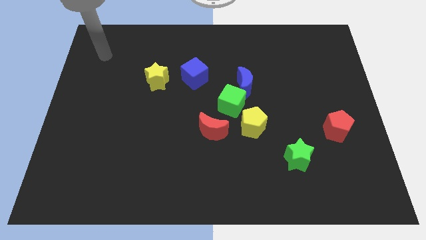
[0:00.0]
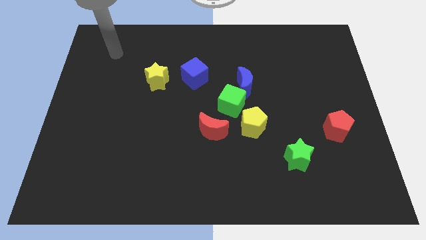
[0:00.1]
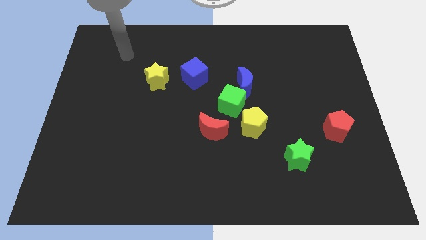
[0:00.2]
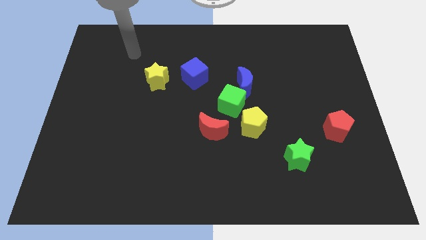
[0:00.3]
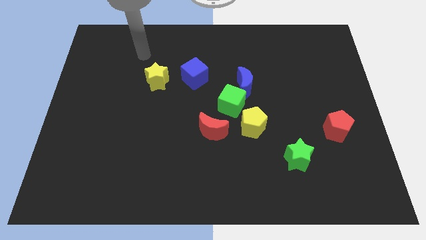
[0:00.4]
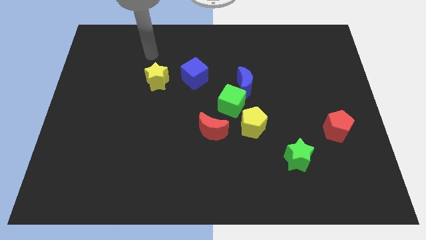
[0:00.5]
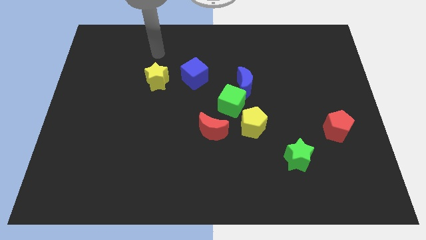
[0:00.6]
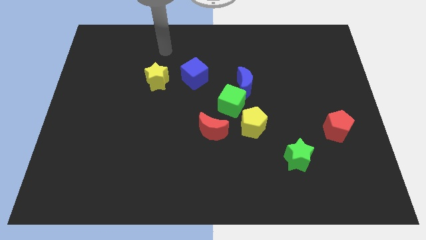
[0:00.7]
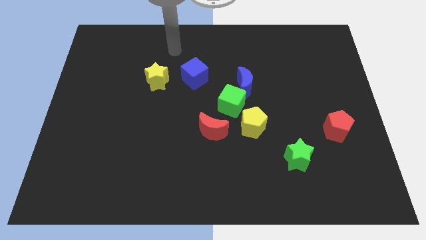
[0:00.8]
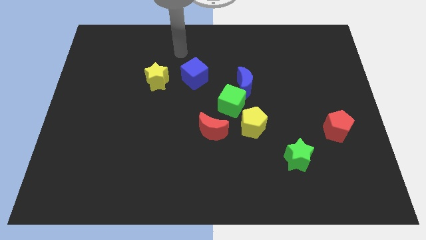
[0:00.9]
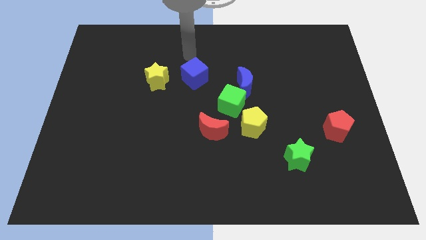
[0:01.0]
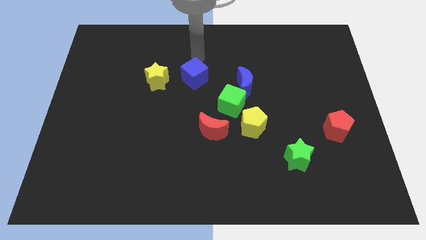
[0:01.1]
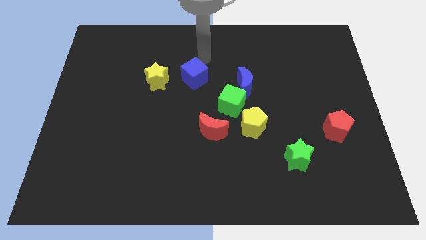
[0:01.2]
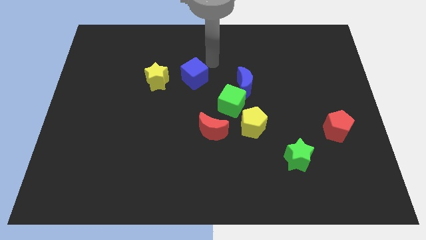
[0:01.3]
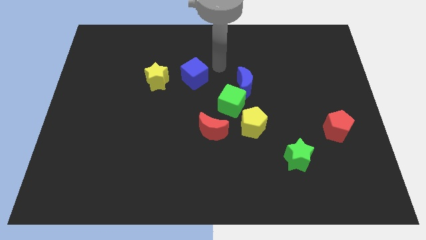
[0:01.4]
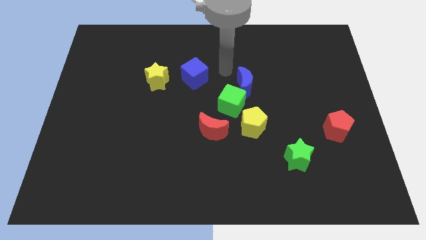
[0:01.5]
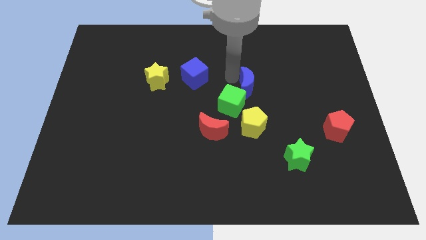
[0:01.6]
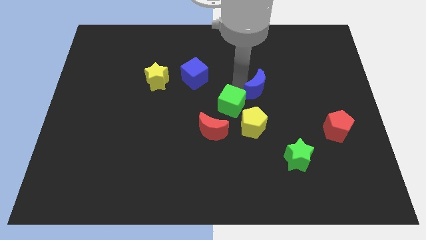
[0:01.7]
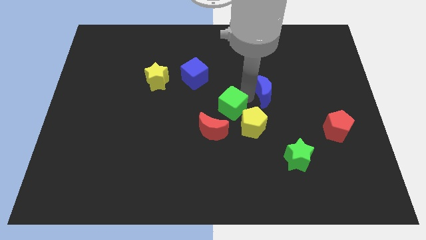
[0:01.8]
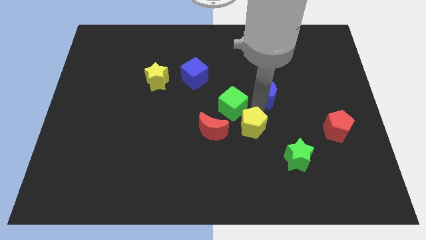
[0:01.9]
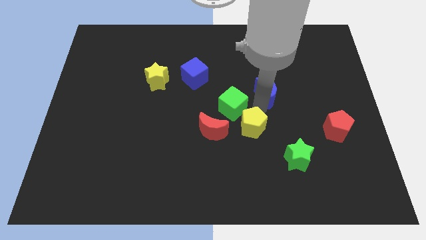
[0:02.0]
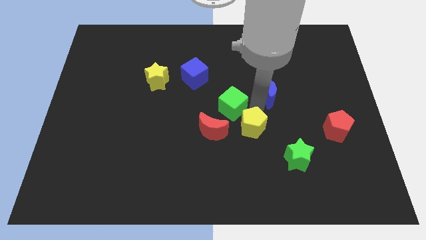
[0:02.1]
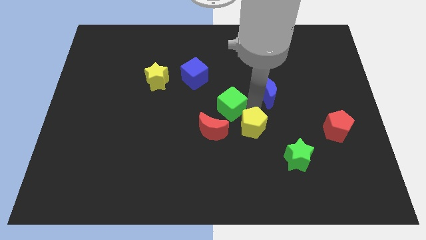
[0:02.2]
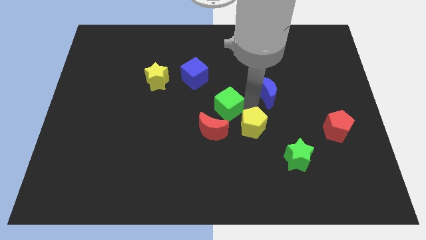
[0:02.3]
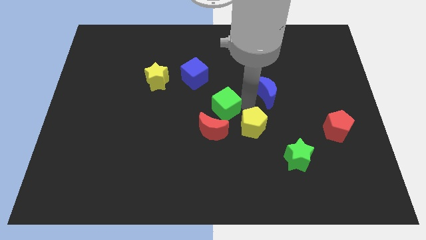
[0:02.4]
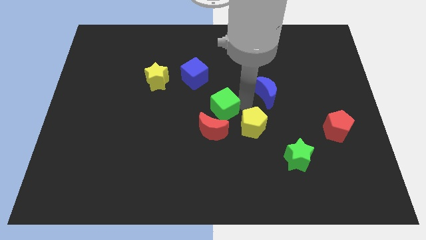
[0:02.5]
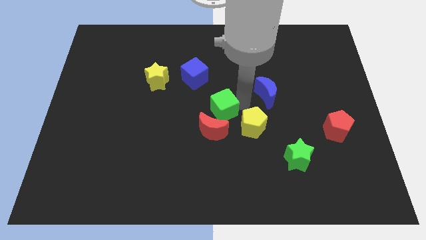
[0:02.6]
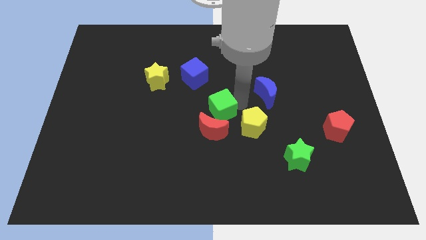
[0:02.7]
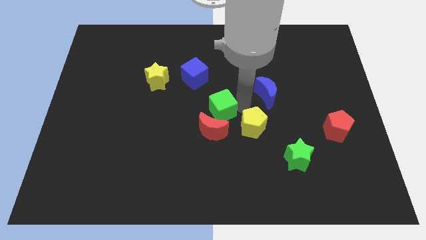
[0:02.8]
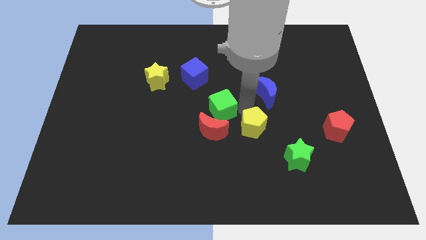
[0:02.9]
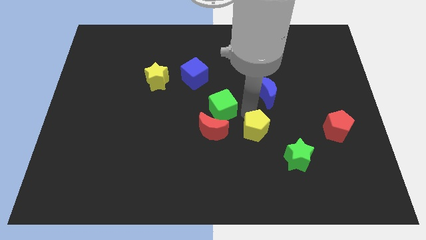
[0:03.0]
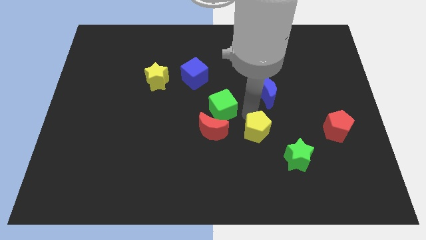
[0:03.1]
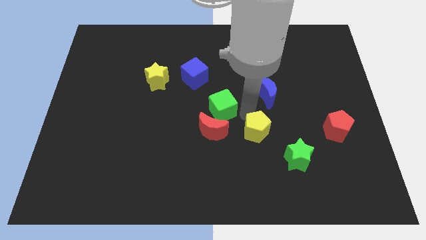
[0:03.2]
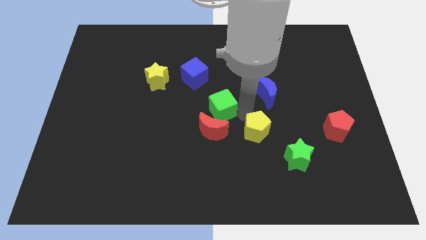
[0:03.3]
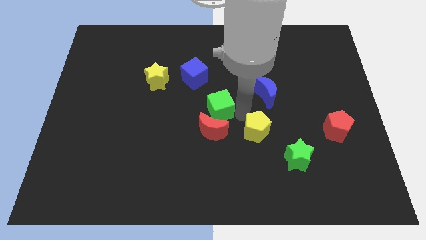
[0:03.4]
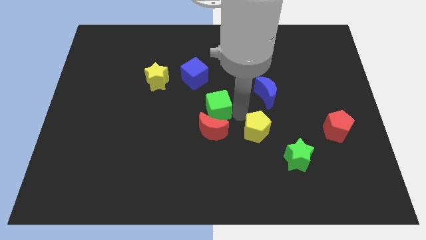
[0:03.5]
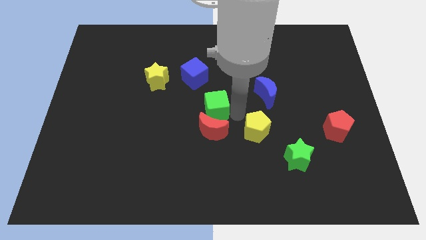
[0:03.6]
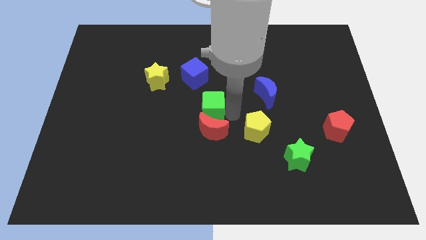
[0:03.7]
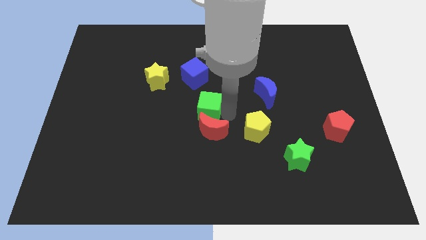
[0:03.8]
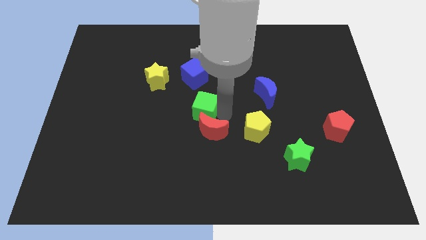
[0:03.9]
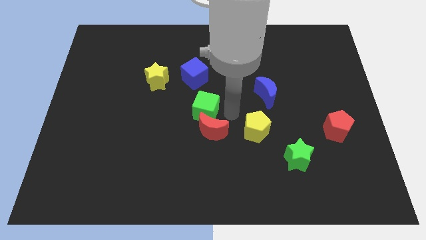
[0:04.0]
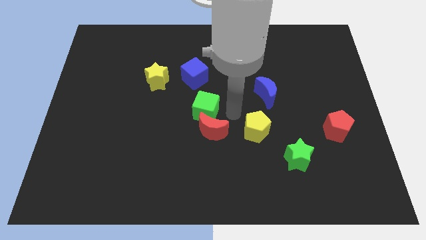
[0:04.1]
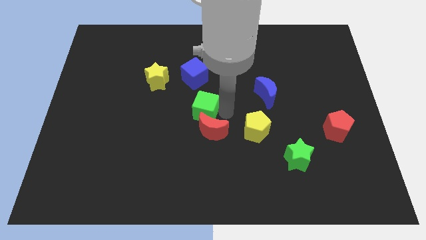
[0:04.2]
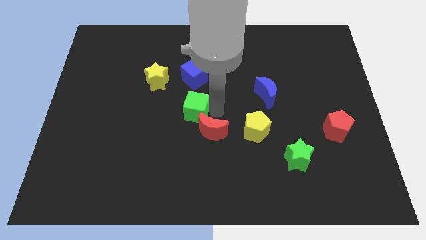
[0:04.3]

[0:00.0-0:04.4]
move the green cube left a little

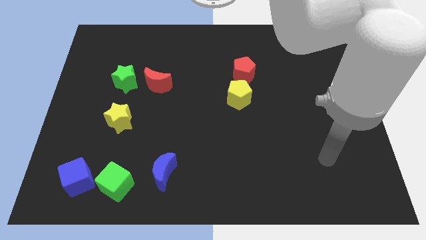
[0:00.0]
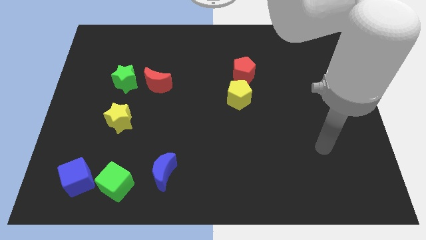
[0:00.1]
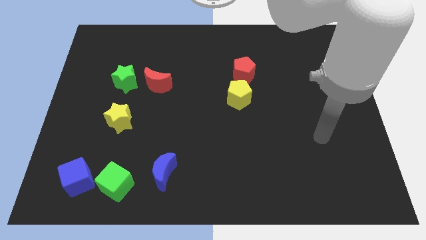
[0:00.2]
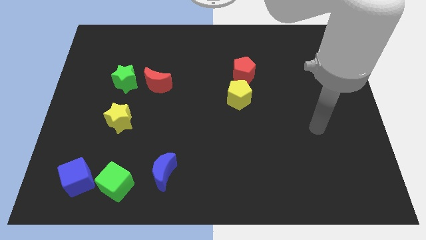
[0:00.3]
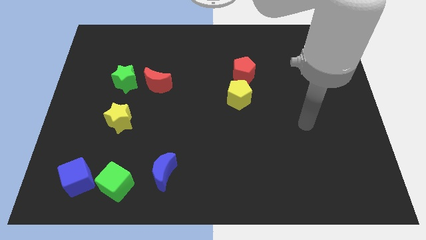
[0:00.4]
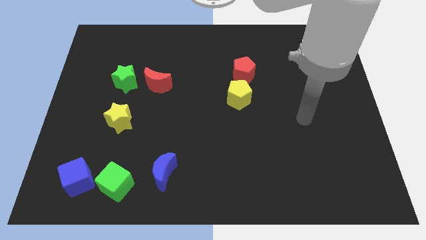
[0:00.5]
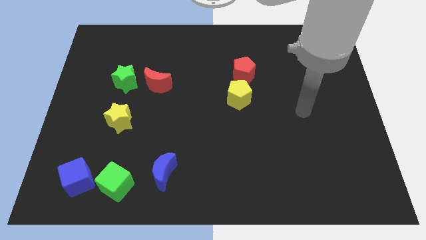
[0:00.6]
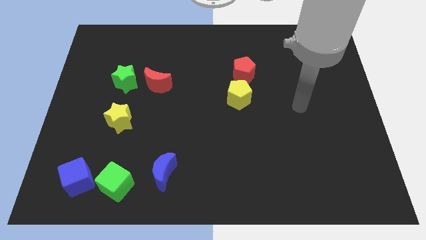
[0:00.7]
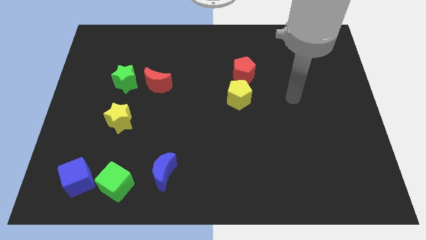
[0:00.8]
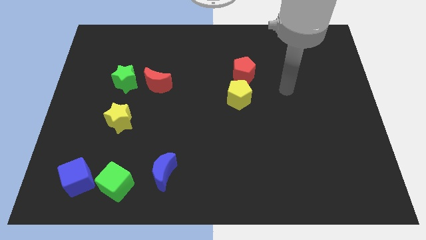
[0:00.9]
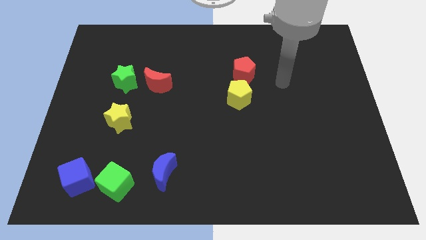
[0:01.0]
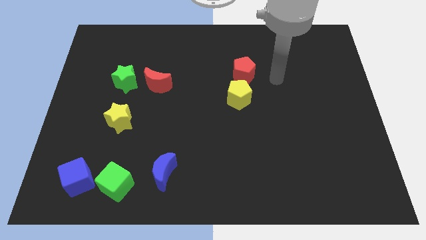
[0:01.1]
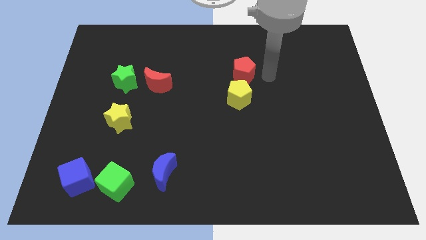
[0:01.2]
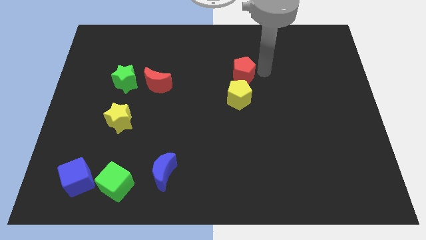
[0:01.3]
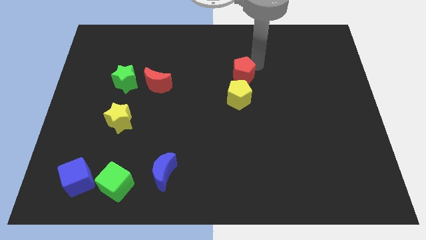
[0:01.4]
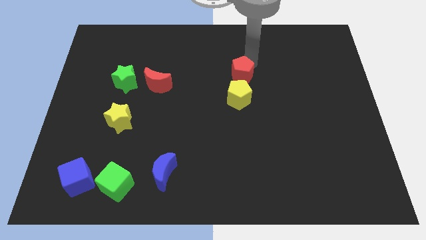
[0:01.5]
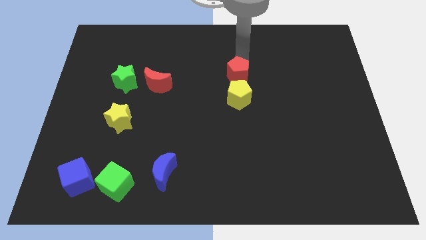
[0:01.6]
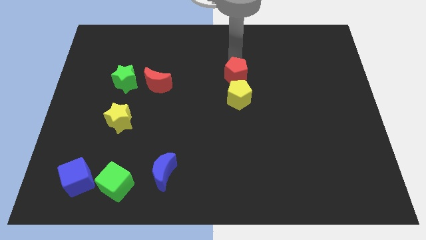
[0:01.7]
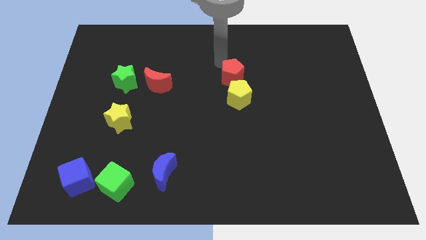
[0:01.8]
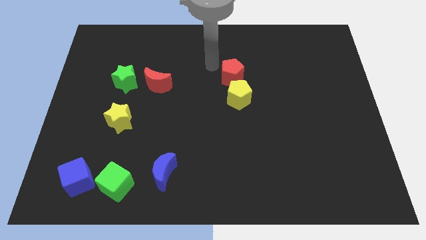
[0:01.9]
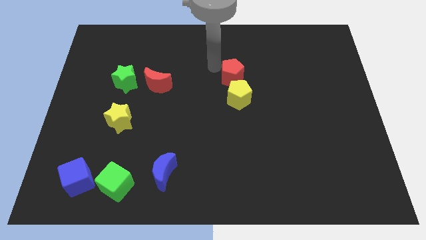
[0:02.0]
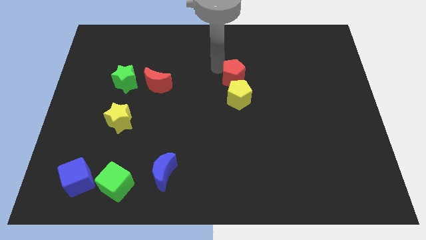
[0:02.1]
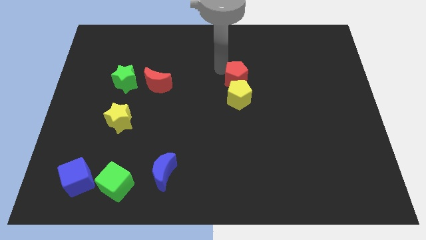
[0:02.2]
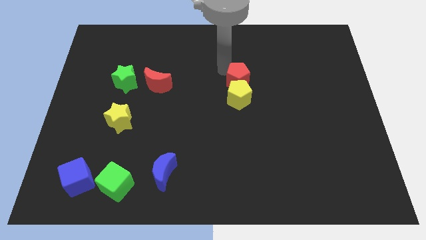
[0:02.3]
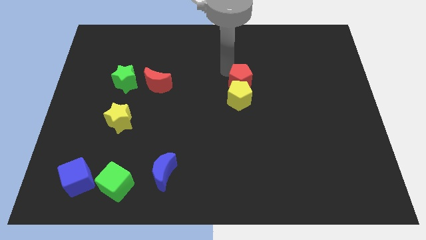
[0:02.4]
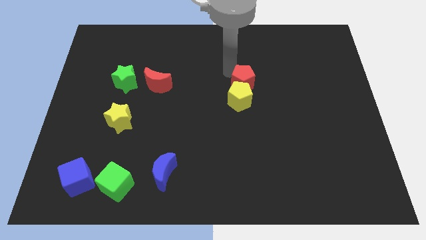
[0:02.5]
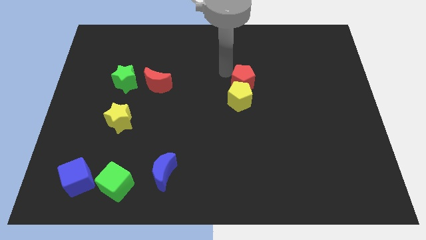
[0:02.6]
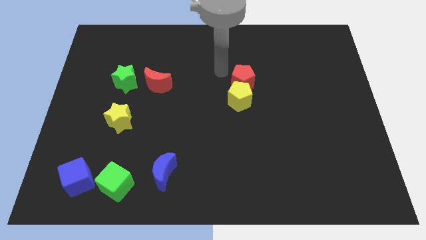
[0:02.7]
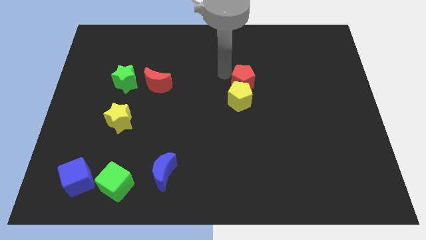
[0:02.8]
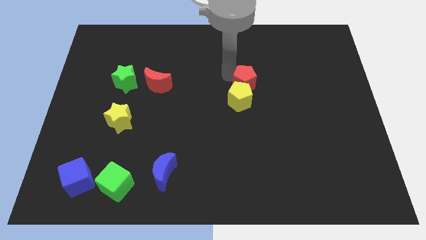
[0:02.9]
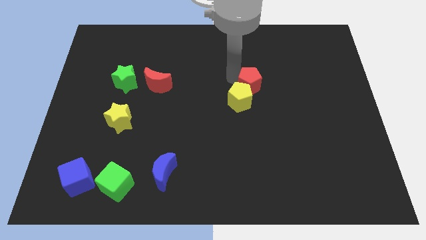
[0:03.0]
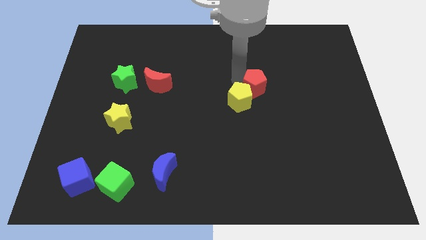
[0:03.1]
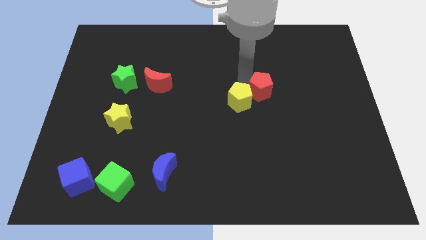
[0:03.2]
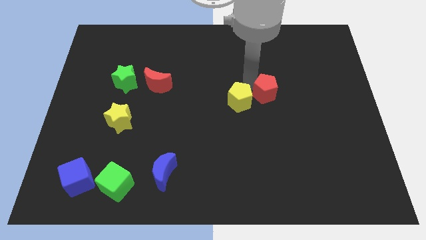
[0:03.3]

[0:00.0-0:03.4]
move the red pentagon slightly diagonally down and right

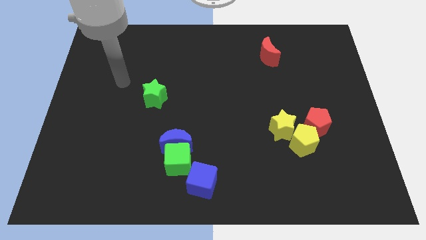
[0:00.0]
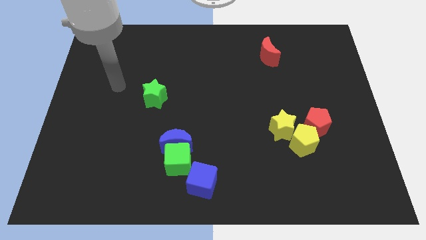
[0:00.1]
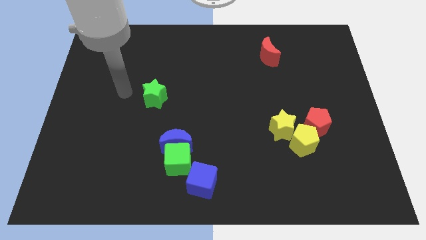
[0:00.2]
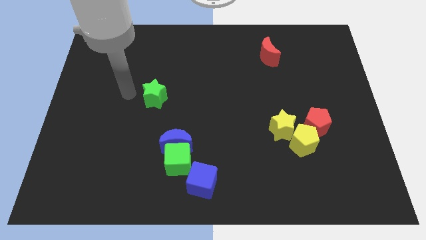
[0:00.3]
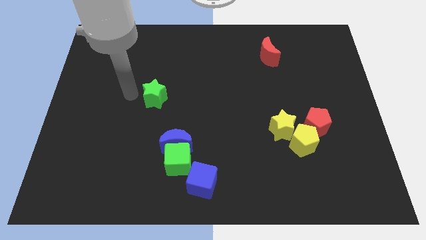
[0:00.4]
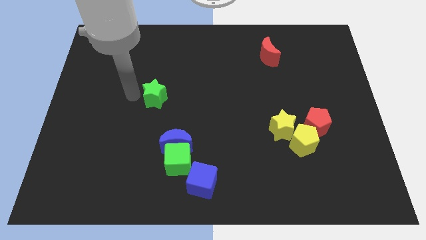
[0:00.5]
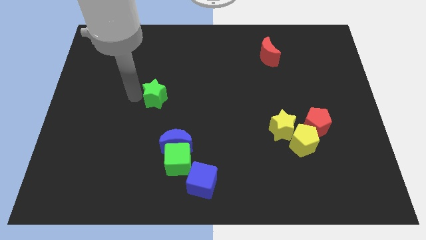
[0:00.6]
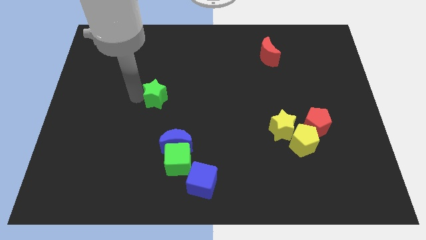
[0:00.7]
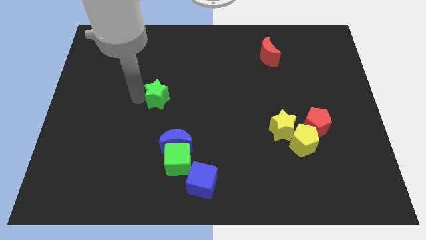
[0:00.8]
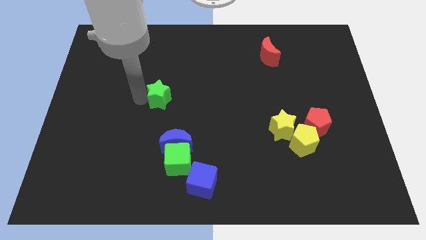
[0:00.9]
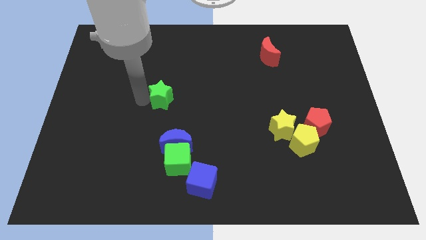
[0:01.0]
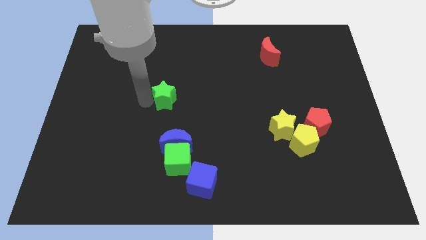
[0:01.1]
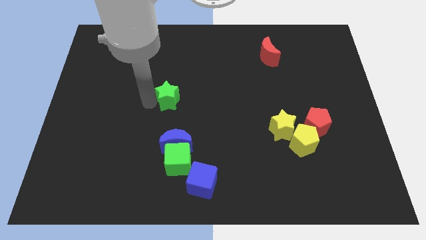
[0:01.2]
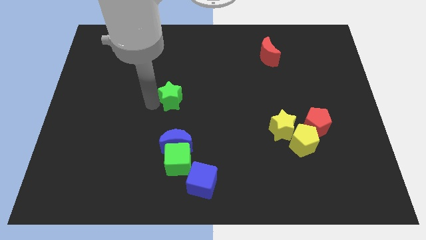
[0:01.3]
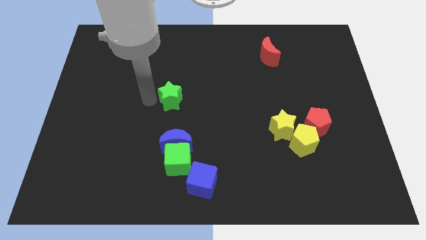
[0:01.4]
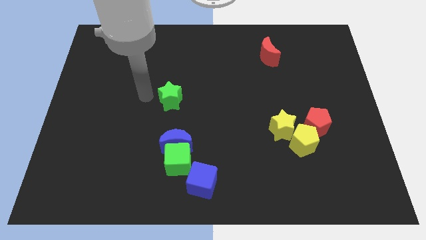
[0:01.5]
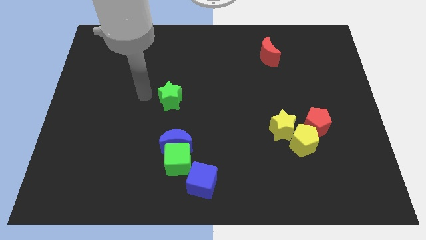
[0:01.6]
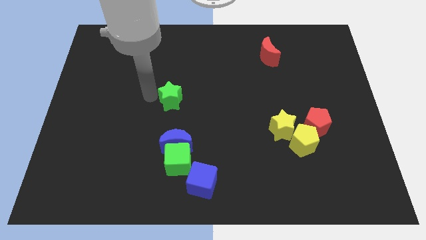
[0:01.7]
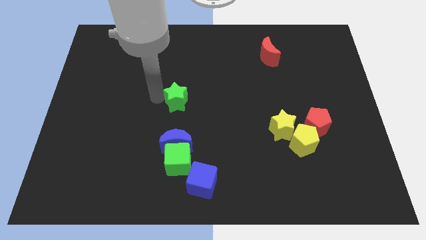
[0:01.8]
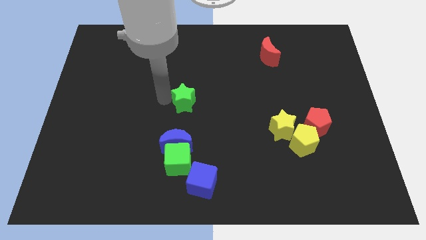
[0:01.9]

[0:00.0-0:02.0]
slide the green star to the right a little
